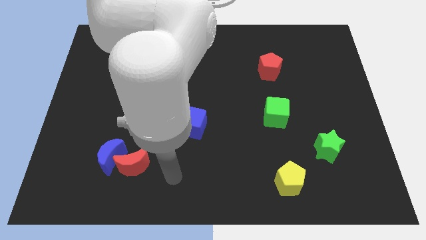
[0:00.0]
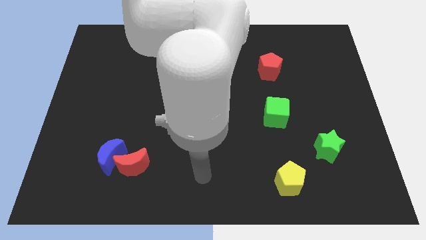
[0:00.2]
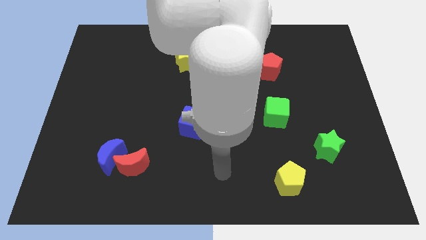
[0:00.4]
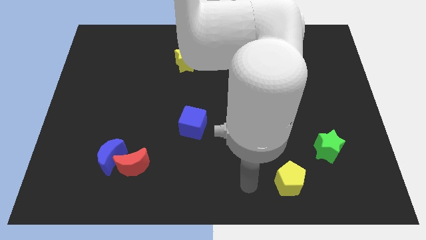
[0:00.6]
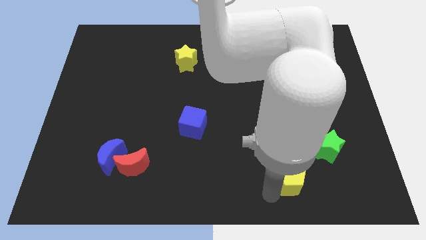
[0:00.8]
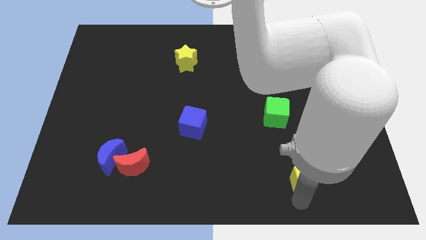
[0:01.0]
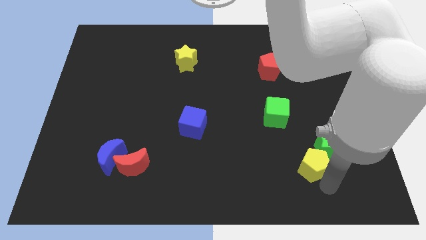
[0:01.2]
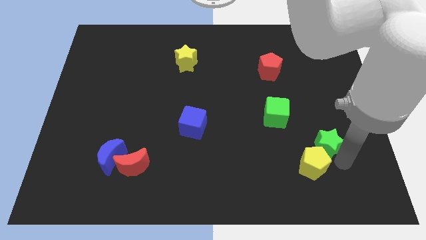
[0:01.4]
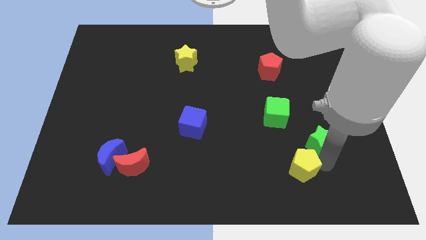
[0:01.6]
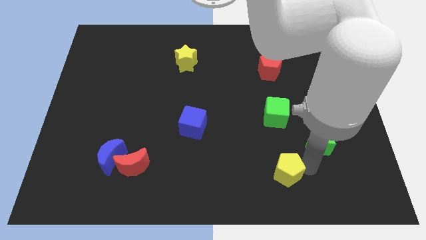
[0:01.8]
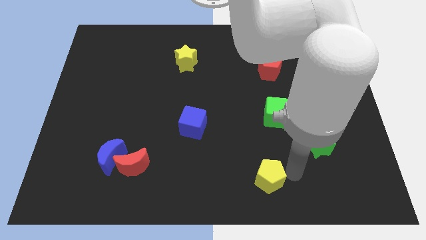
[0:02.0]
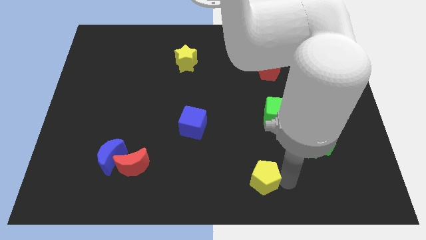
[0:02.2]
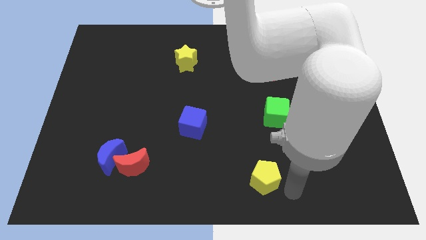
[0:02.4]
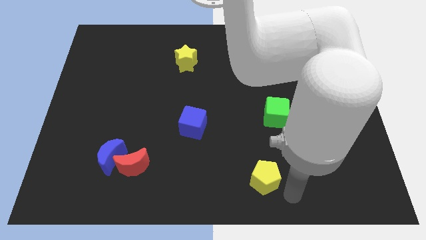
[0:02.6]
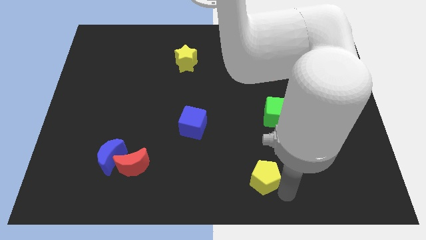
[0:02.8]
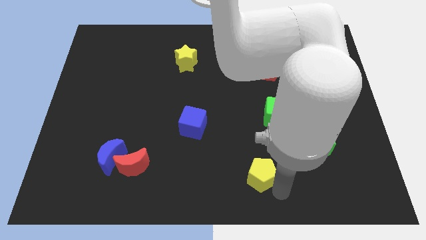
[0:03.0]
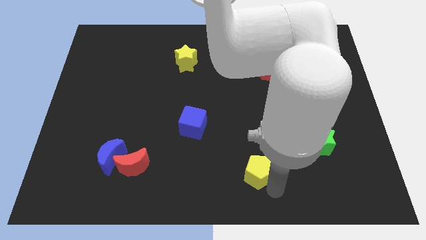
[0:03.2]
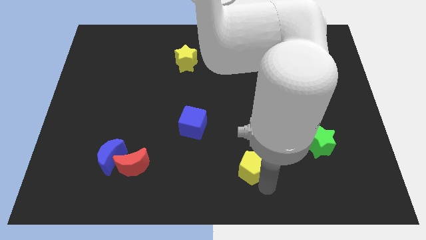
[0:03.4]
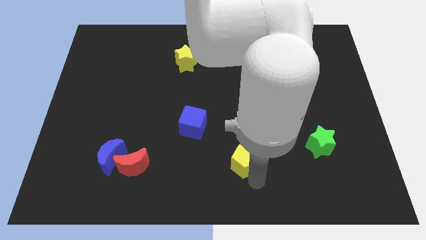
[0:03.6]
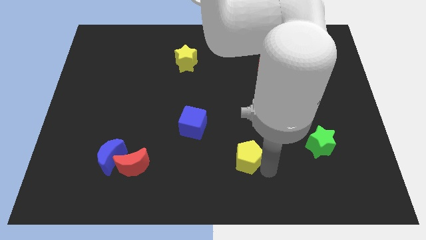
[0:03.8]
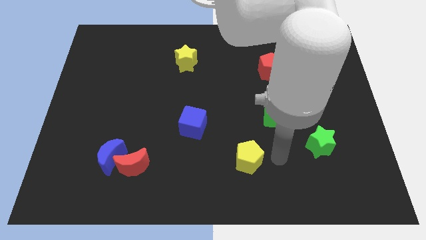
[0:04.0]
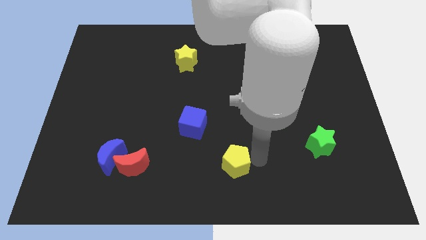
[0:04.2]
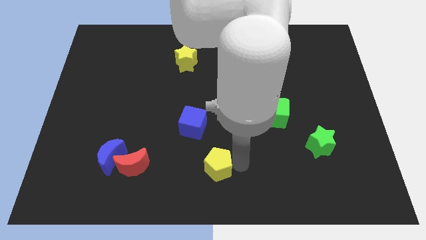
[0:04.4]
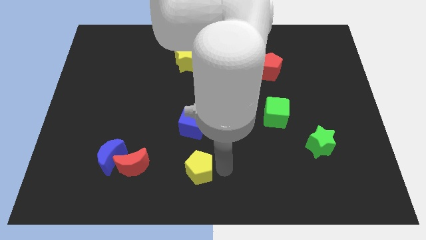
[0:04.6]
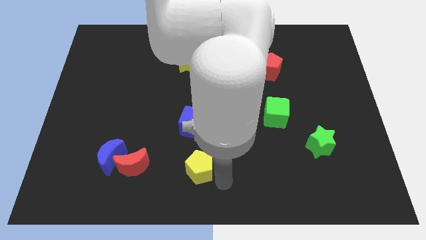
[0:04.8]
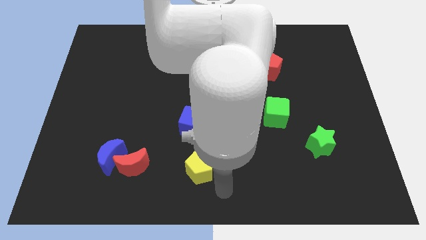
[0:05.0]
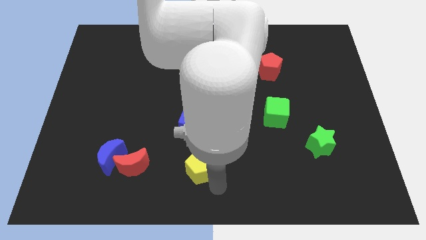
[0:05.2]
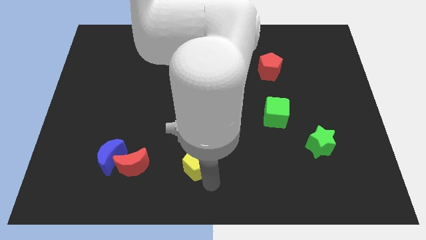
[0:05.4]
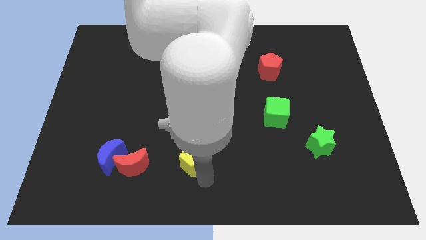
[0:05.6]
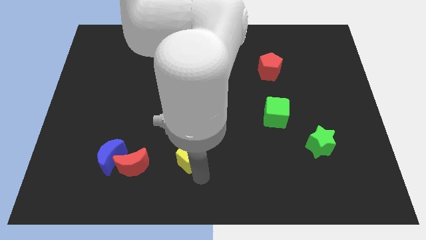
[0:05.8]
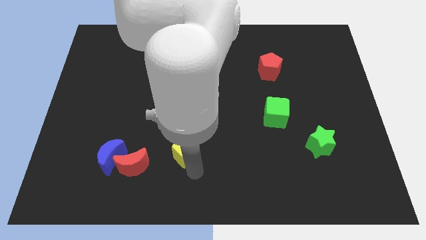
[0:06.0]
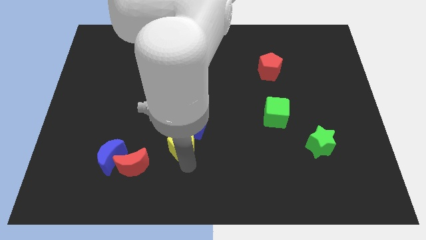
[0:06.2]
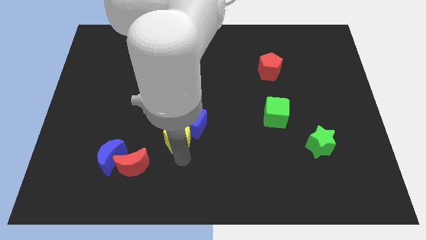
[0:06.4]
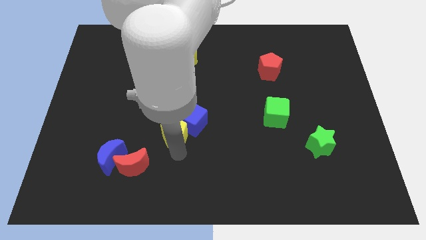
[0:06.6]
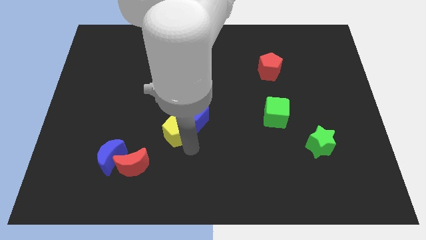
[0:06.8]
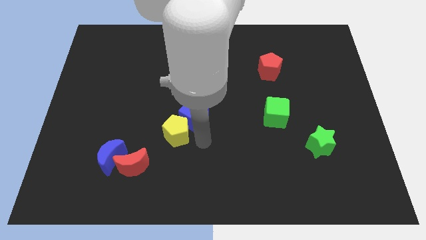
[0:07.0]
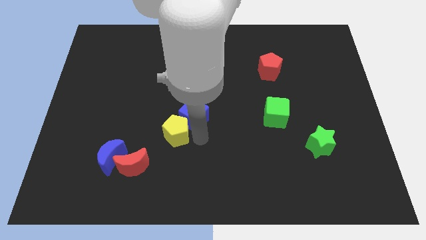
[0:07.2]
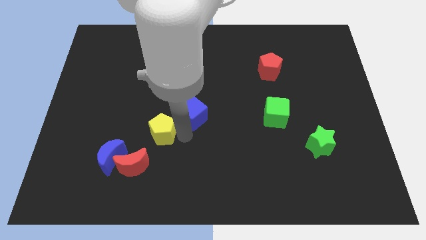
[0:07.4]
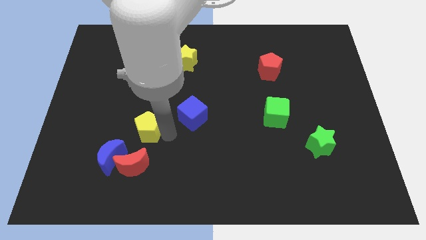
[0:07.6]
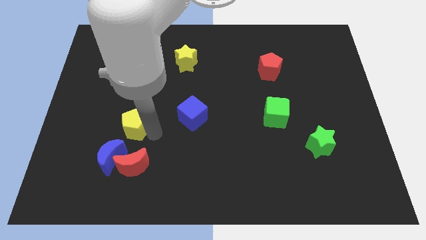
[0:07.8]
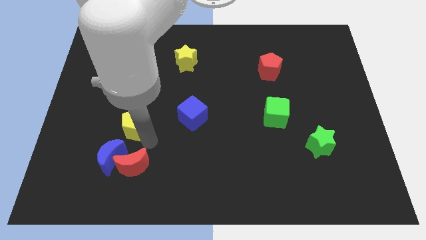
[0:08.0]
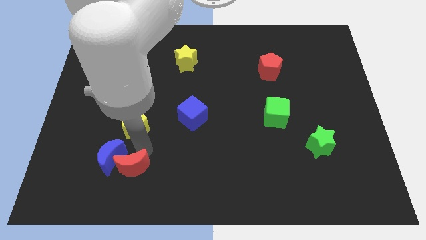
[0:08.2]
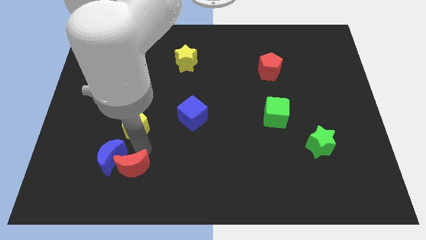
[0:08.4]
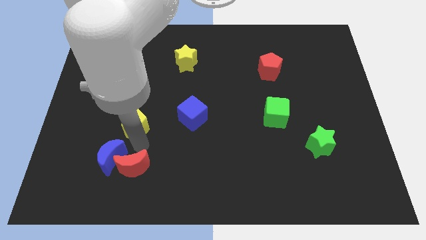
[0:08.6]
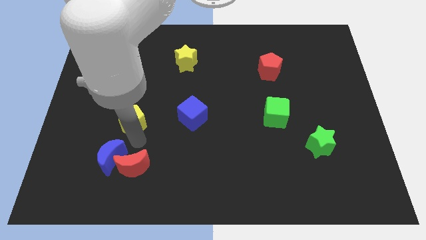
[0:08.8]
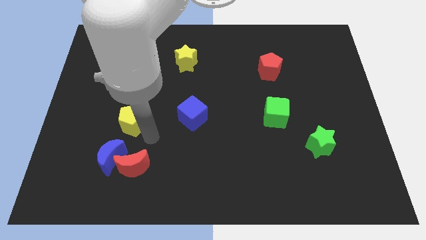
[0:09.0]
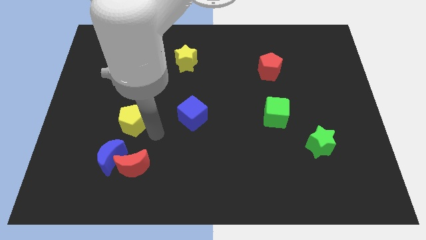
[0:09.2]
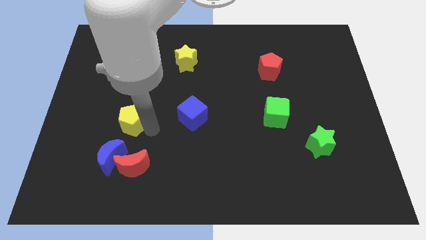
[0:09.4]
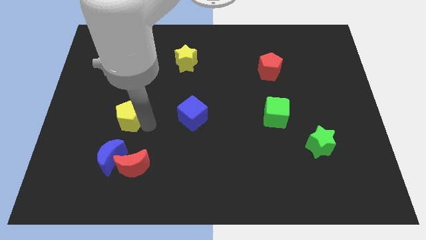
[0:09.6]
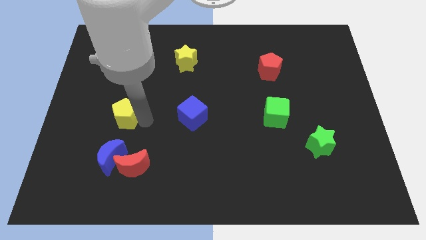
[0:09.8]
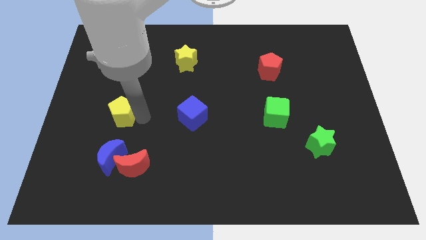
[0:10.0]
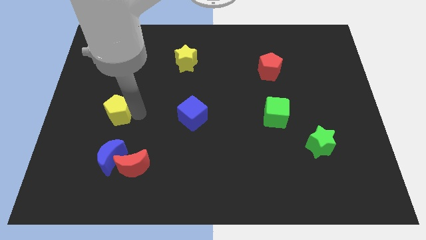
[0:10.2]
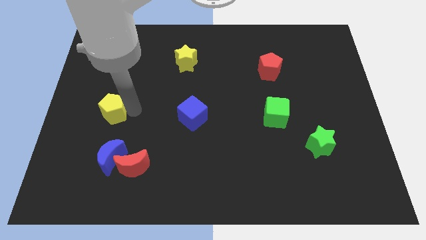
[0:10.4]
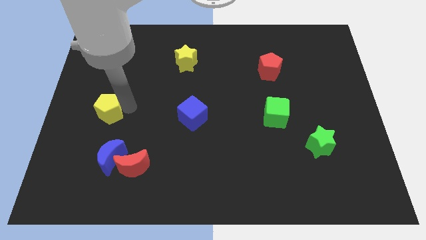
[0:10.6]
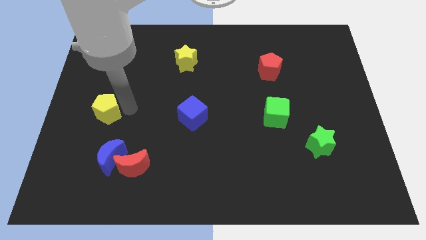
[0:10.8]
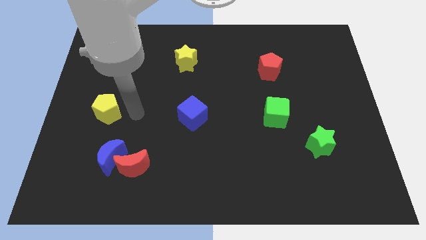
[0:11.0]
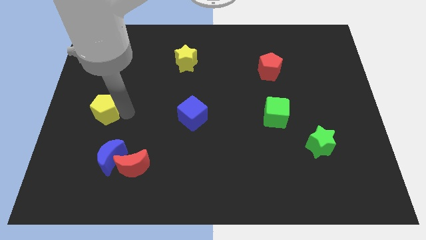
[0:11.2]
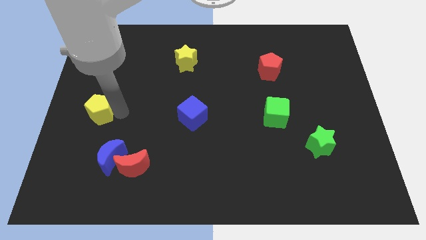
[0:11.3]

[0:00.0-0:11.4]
slide the yellow pentagon to the left side
